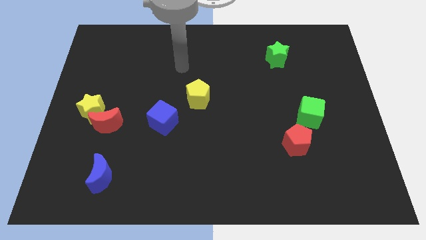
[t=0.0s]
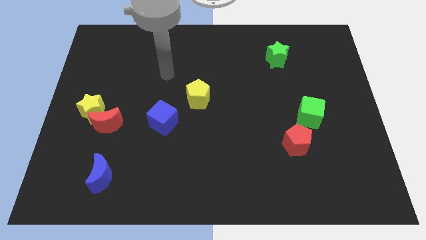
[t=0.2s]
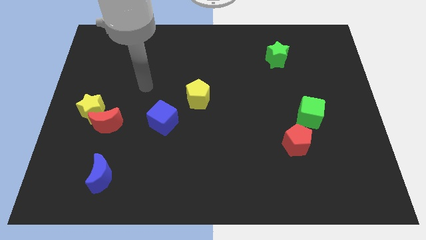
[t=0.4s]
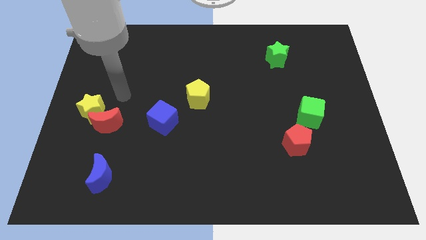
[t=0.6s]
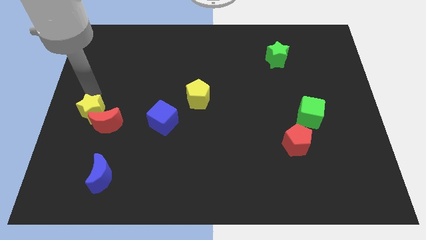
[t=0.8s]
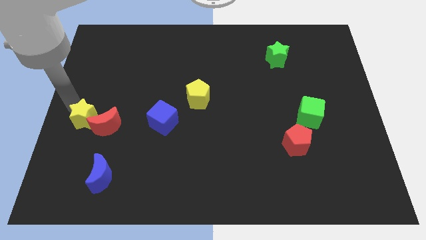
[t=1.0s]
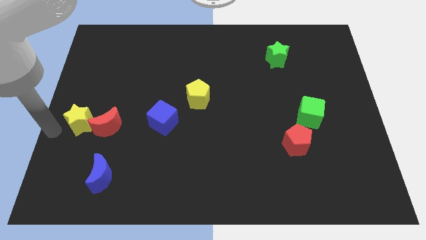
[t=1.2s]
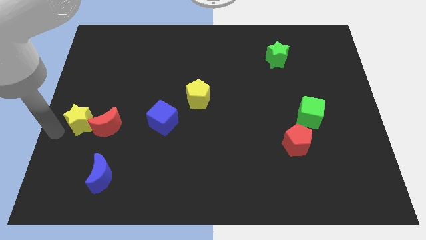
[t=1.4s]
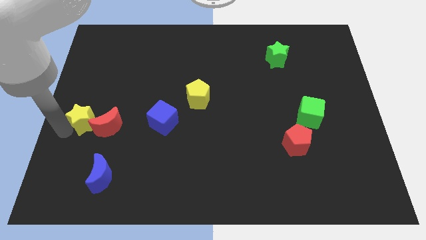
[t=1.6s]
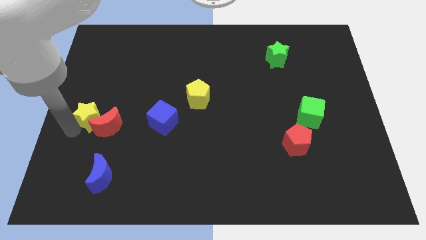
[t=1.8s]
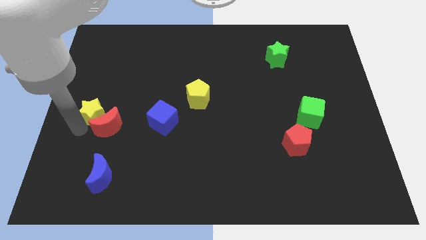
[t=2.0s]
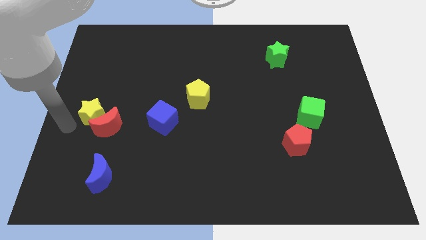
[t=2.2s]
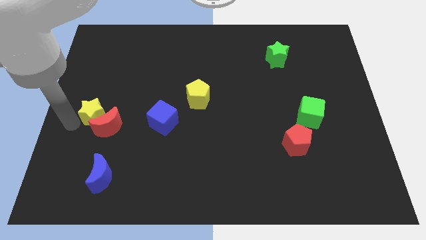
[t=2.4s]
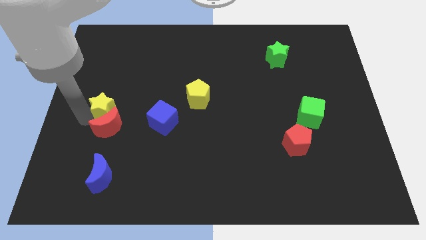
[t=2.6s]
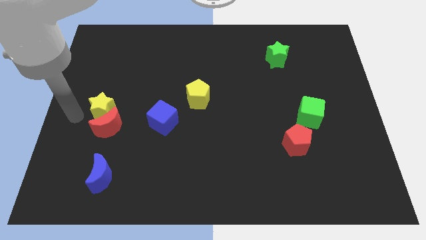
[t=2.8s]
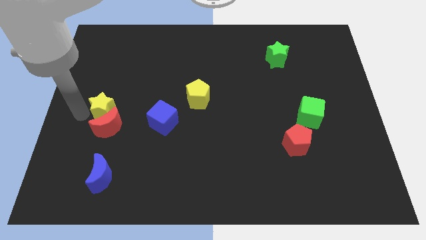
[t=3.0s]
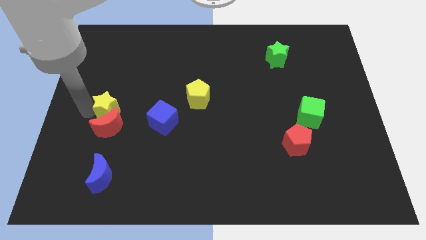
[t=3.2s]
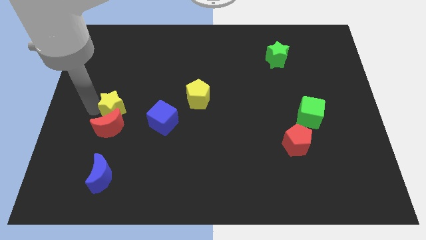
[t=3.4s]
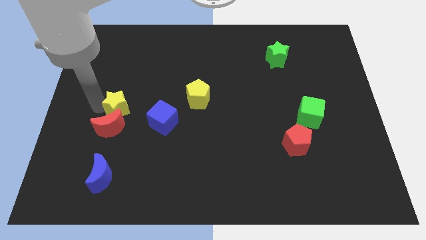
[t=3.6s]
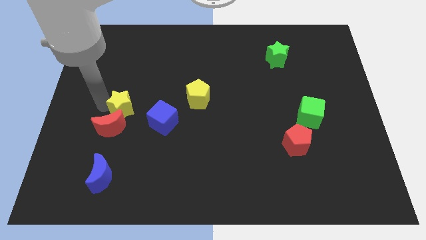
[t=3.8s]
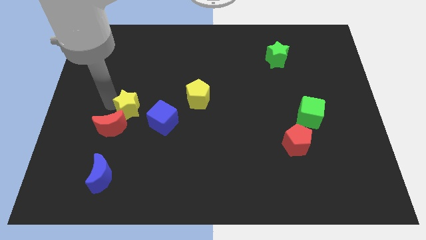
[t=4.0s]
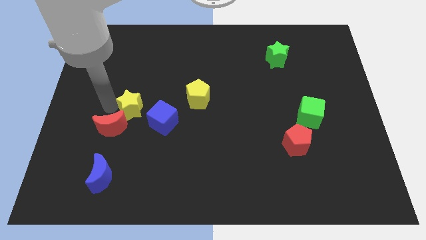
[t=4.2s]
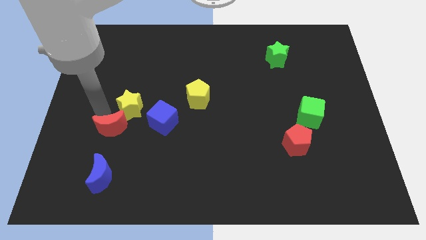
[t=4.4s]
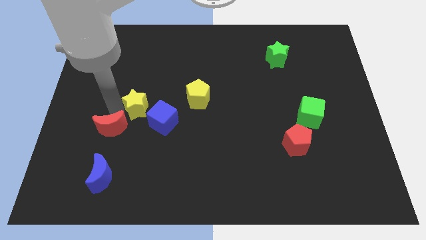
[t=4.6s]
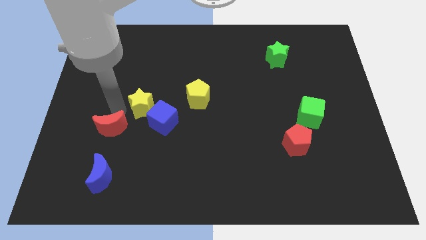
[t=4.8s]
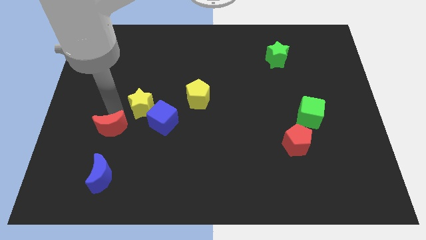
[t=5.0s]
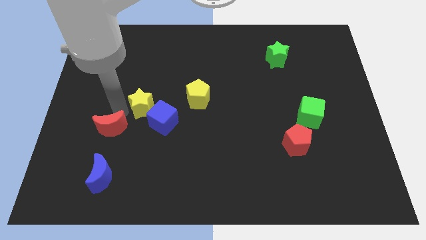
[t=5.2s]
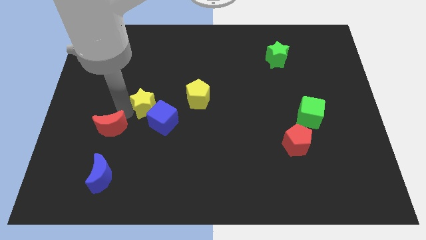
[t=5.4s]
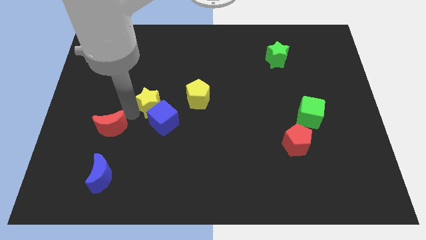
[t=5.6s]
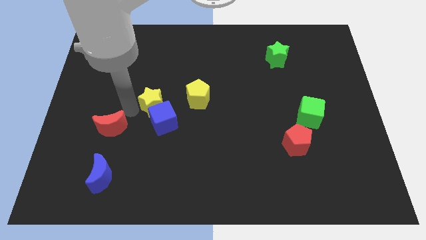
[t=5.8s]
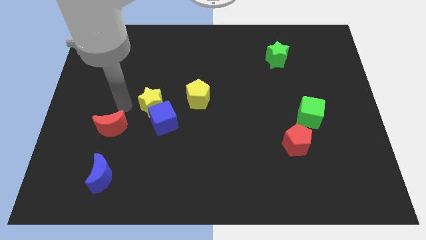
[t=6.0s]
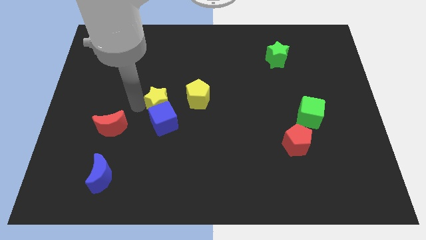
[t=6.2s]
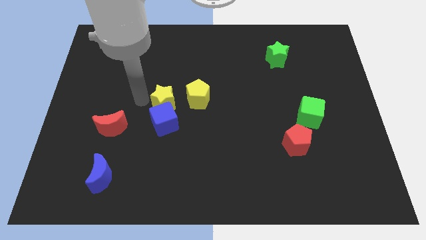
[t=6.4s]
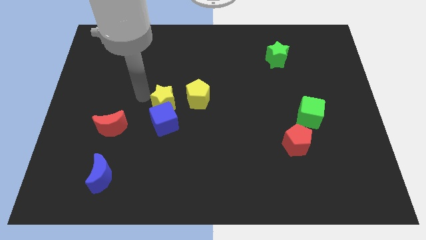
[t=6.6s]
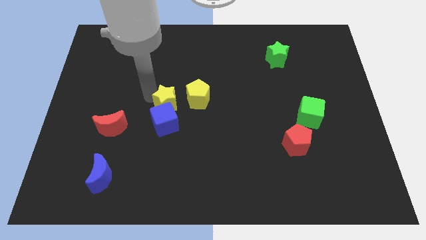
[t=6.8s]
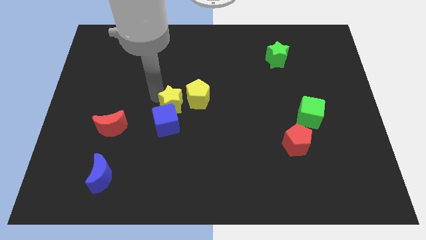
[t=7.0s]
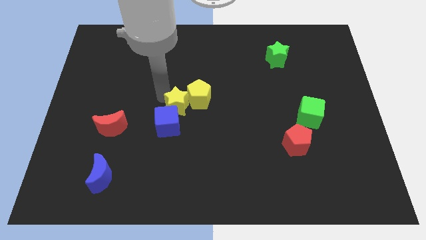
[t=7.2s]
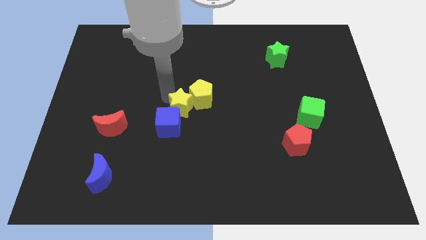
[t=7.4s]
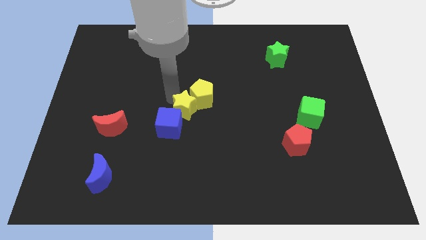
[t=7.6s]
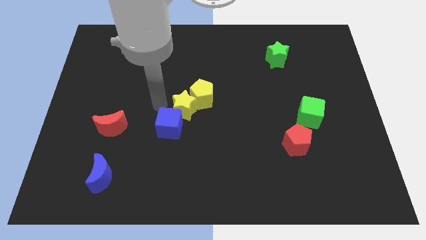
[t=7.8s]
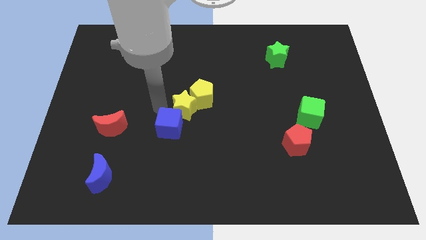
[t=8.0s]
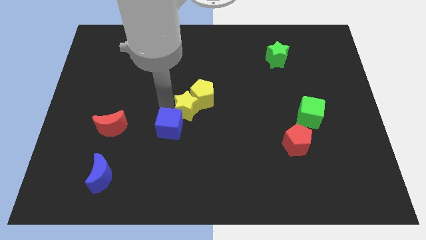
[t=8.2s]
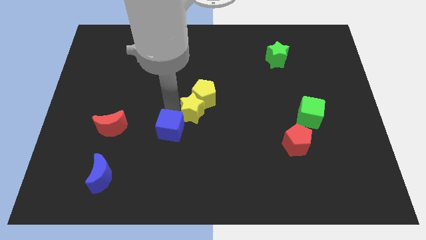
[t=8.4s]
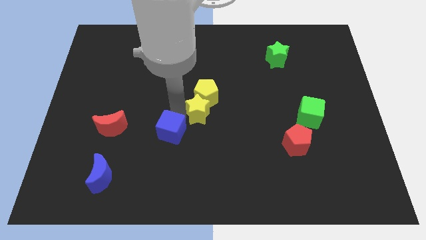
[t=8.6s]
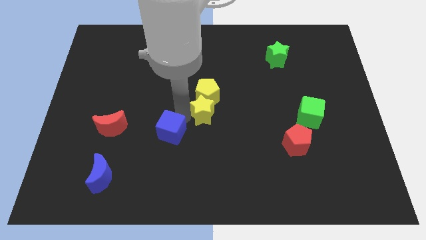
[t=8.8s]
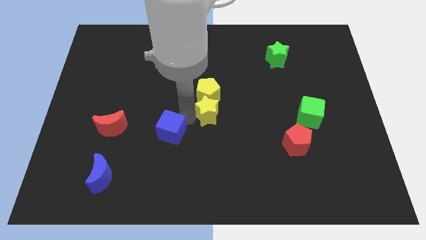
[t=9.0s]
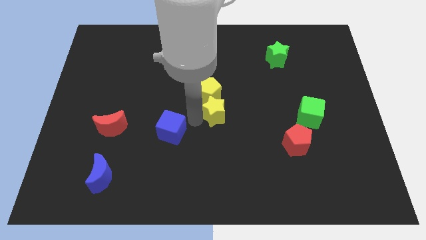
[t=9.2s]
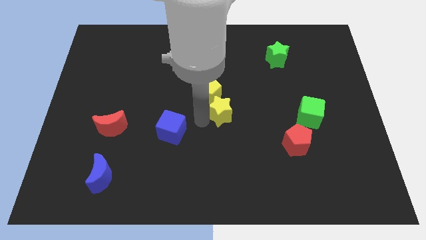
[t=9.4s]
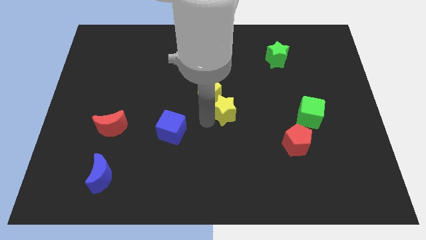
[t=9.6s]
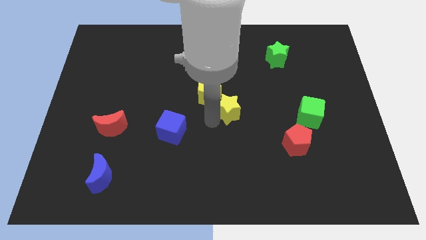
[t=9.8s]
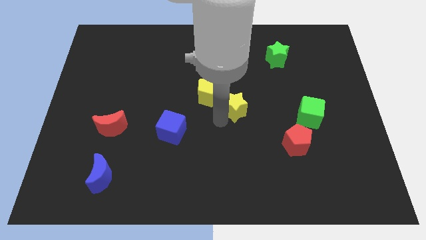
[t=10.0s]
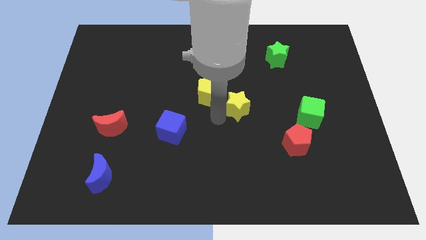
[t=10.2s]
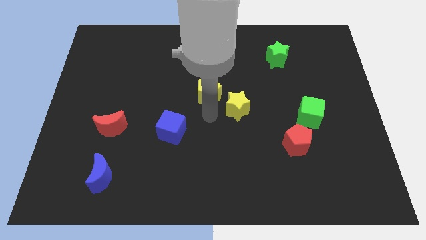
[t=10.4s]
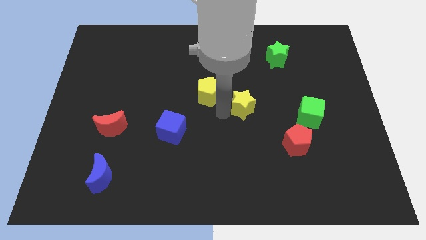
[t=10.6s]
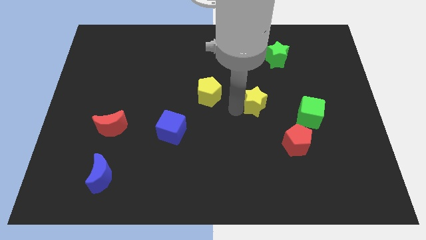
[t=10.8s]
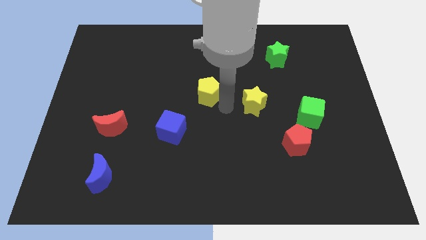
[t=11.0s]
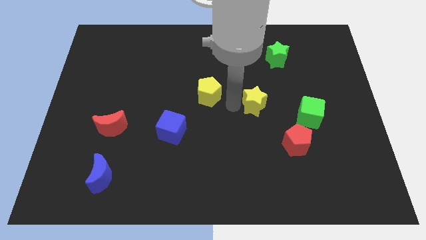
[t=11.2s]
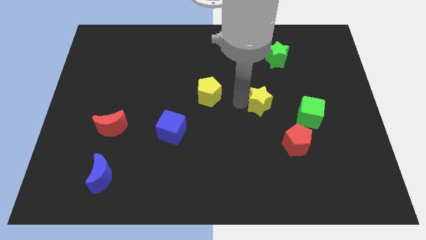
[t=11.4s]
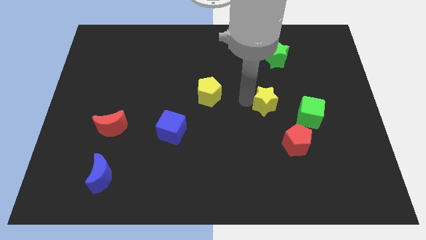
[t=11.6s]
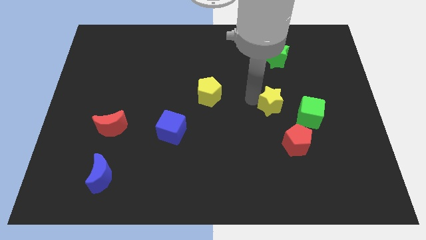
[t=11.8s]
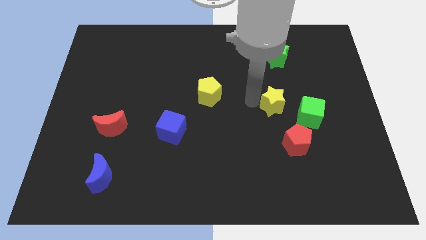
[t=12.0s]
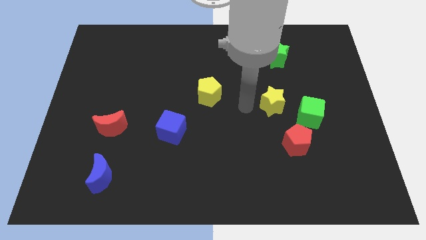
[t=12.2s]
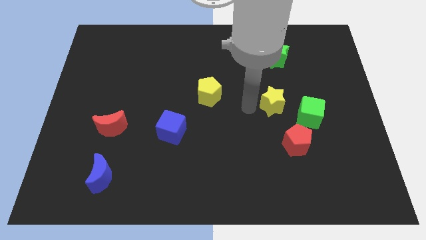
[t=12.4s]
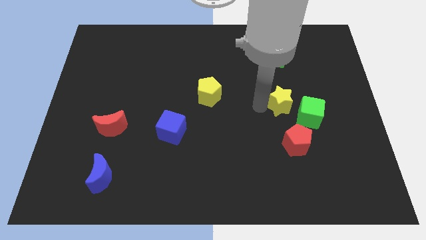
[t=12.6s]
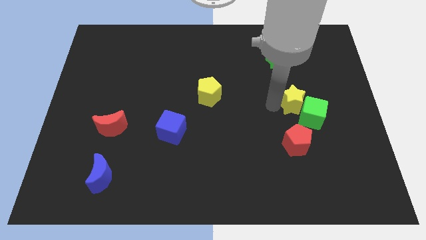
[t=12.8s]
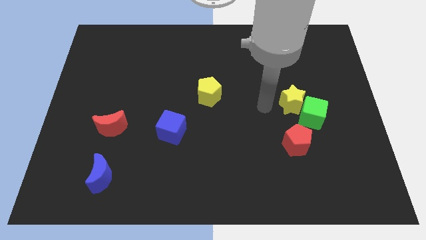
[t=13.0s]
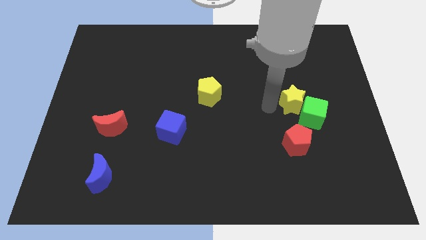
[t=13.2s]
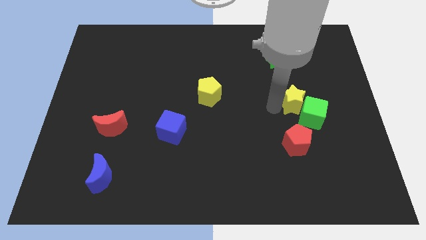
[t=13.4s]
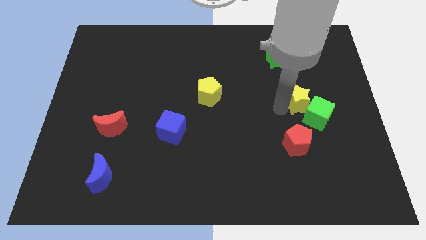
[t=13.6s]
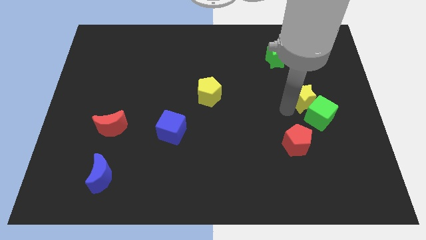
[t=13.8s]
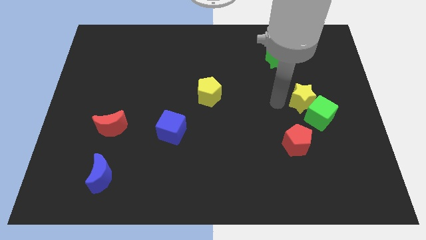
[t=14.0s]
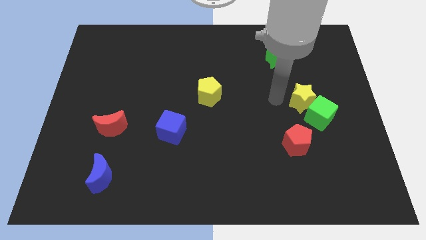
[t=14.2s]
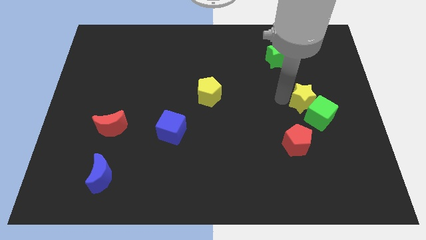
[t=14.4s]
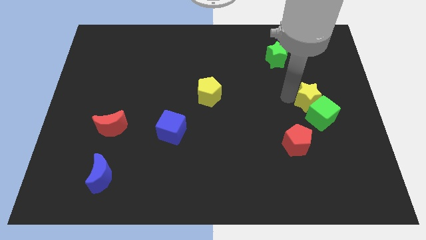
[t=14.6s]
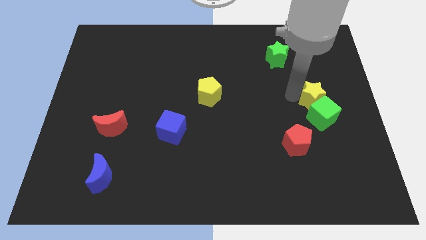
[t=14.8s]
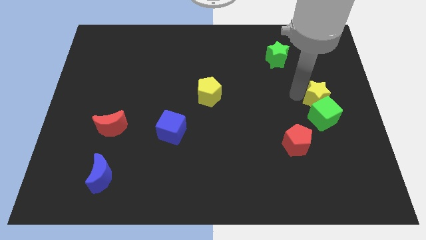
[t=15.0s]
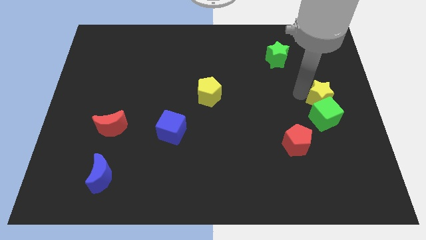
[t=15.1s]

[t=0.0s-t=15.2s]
slide the yellow star to the right side of the board
